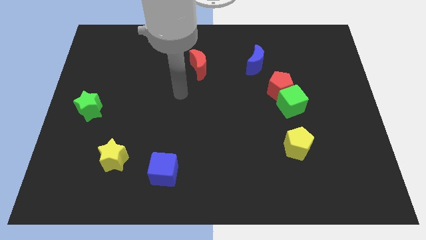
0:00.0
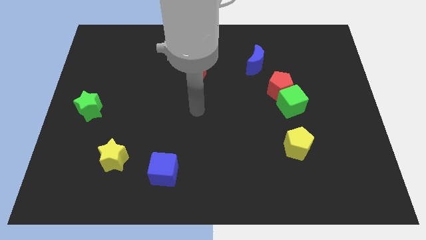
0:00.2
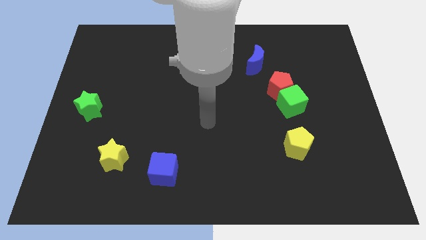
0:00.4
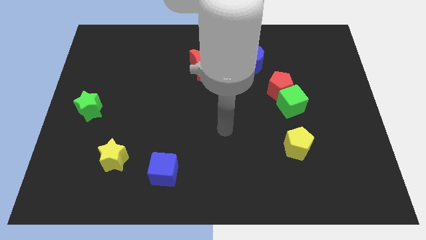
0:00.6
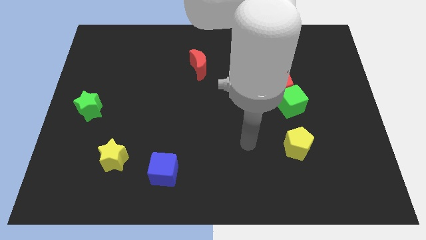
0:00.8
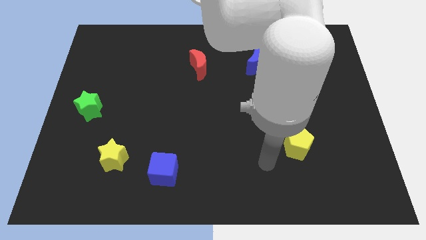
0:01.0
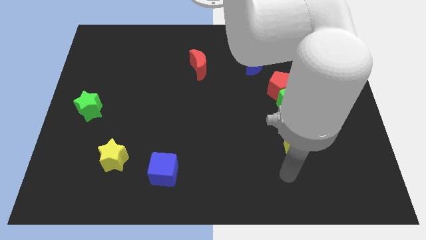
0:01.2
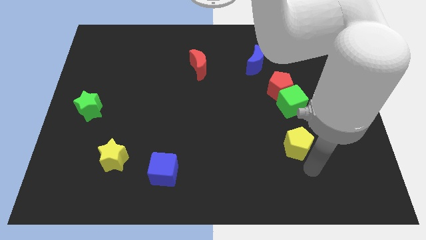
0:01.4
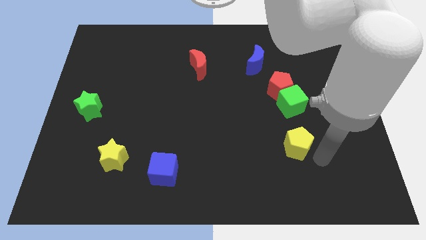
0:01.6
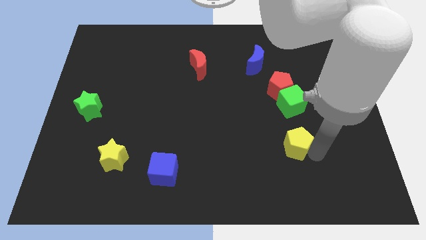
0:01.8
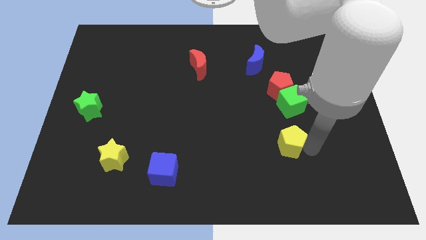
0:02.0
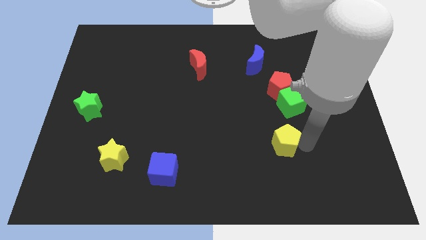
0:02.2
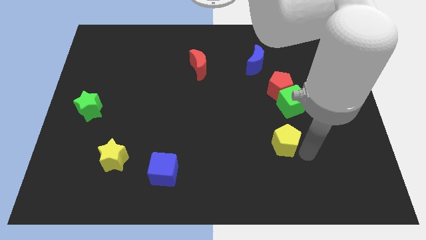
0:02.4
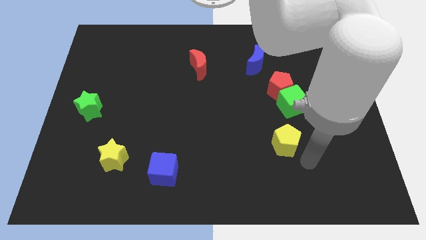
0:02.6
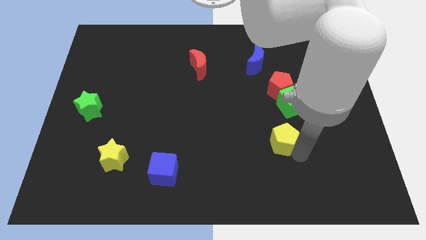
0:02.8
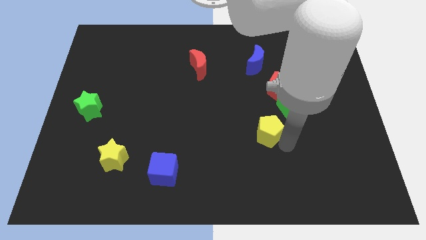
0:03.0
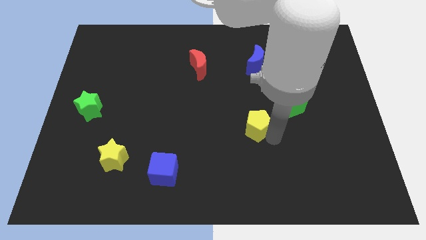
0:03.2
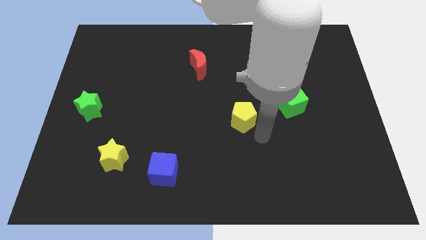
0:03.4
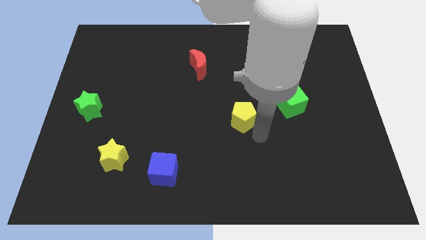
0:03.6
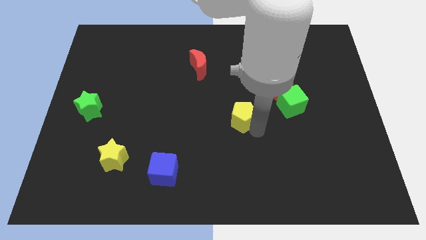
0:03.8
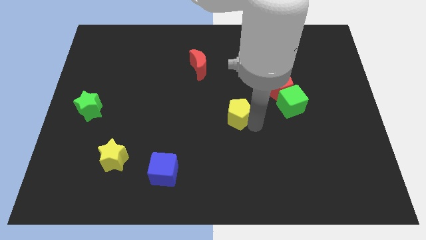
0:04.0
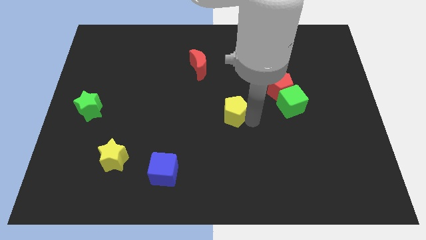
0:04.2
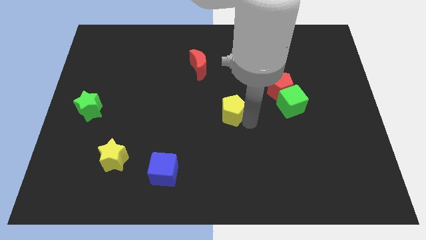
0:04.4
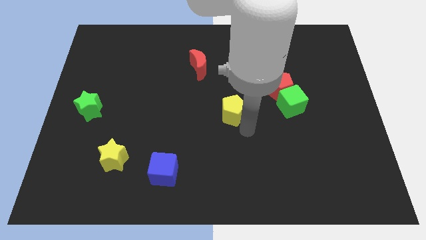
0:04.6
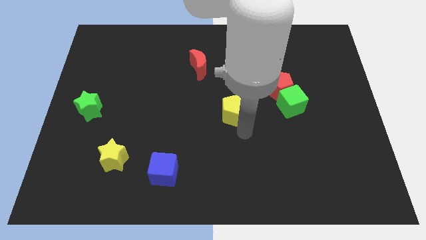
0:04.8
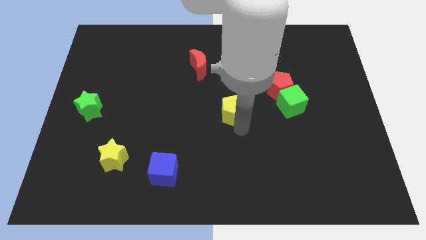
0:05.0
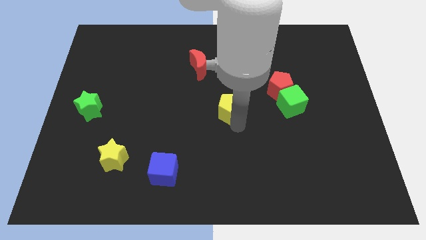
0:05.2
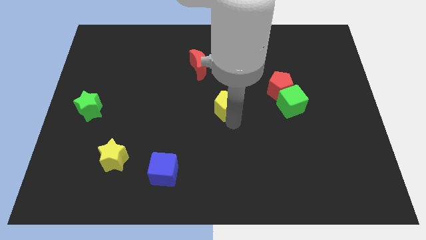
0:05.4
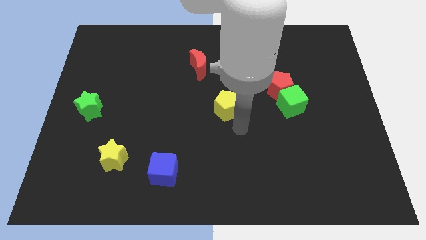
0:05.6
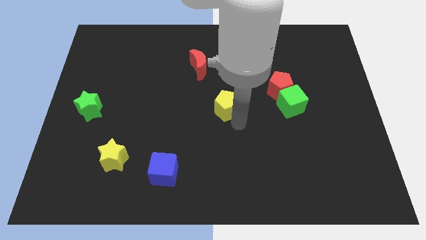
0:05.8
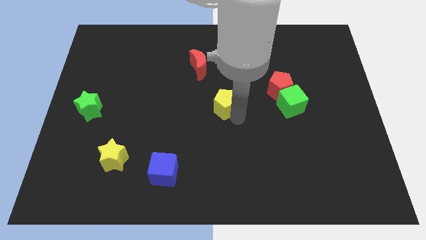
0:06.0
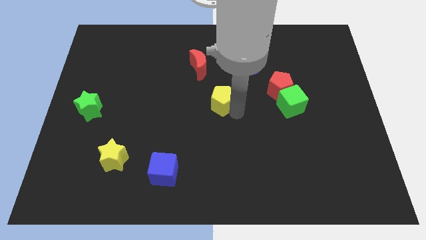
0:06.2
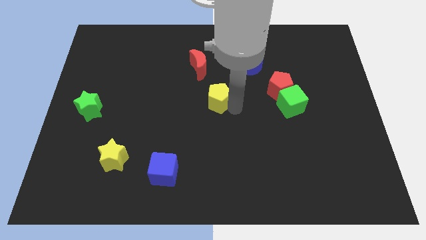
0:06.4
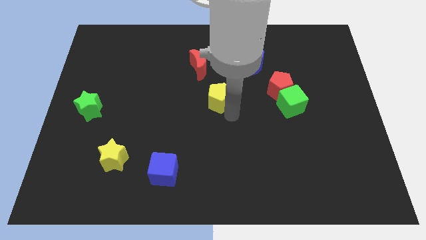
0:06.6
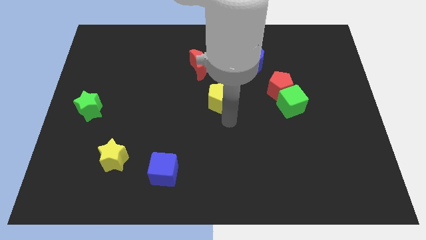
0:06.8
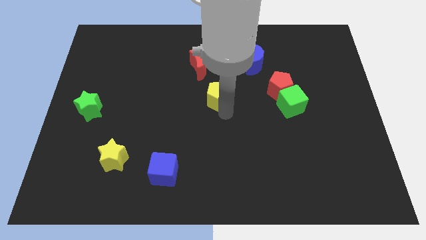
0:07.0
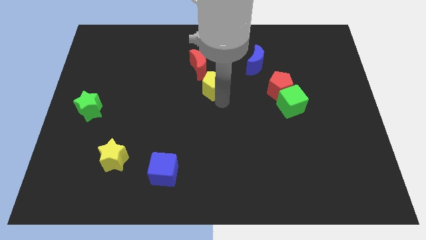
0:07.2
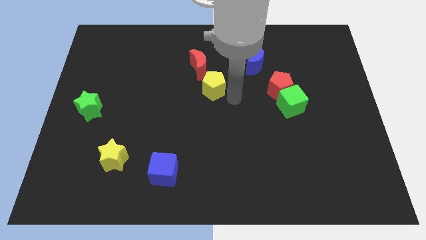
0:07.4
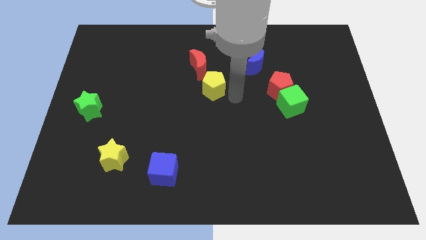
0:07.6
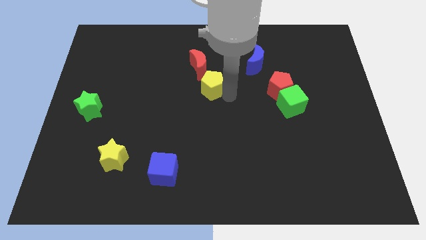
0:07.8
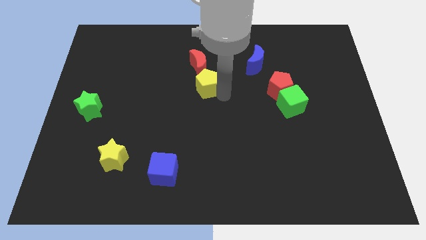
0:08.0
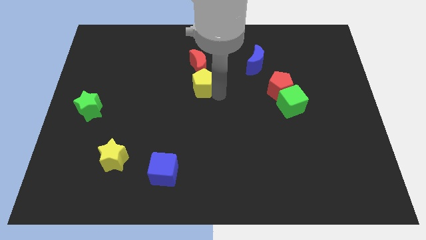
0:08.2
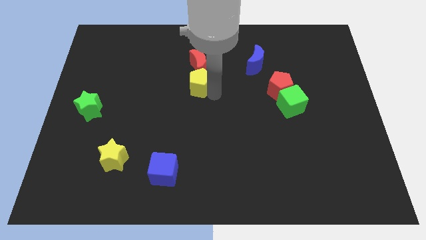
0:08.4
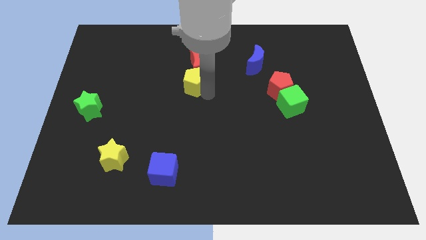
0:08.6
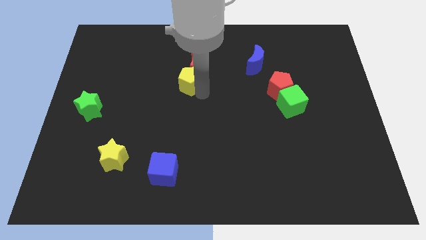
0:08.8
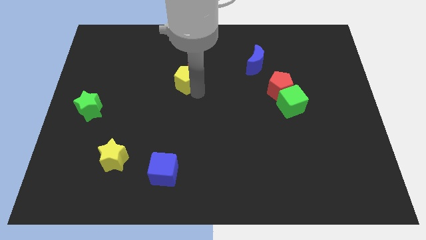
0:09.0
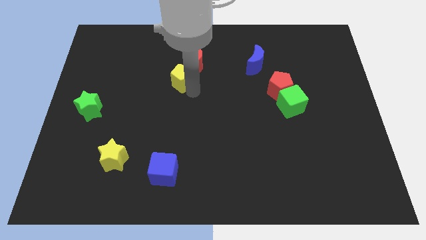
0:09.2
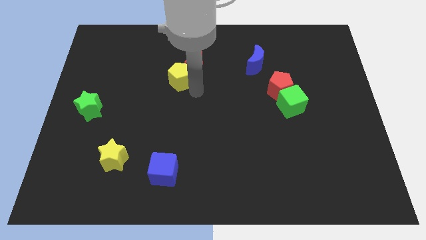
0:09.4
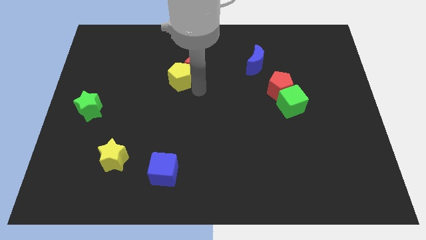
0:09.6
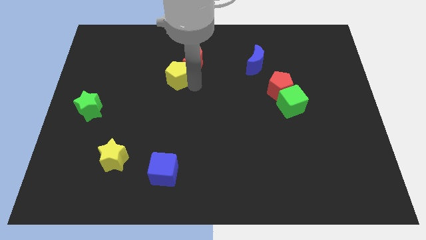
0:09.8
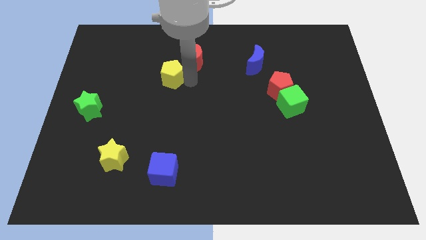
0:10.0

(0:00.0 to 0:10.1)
push the yellow pentagon to the left side of the red moon

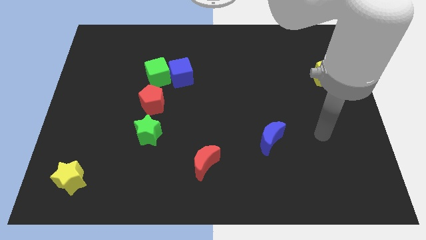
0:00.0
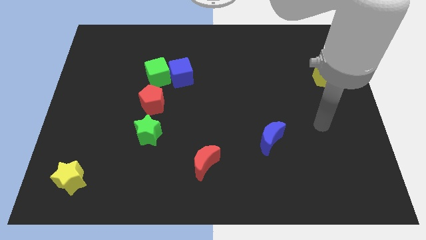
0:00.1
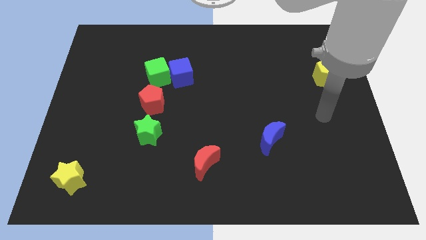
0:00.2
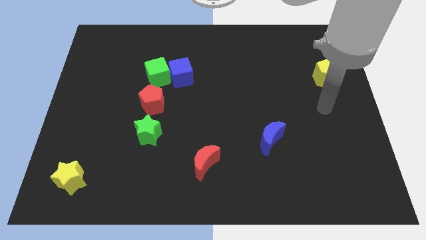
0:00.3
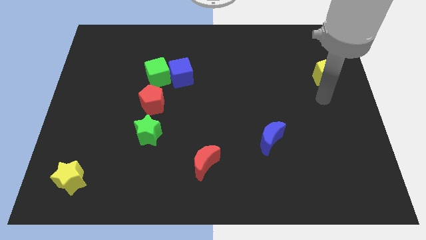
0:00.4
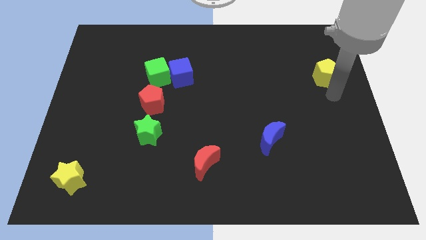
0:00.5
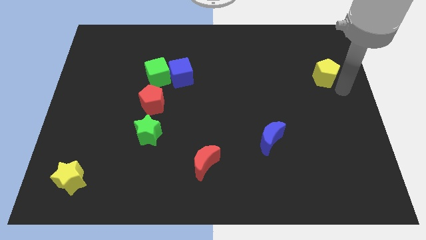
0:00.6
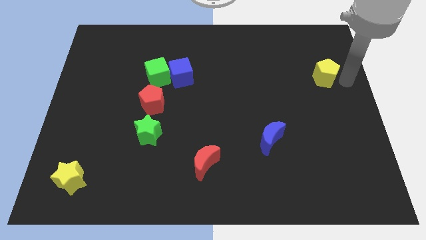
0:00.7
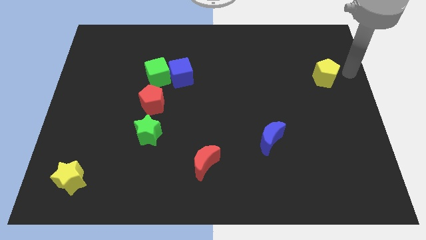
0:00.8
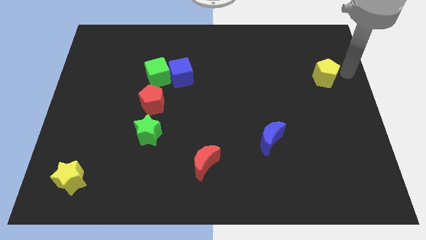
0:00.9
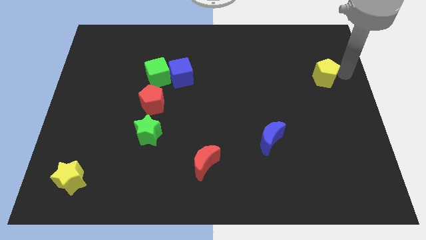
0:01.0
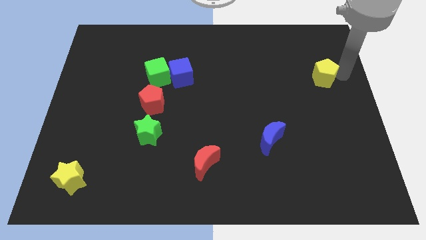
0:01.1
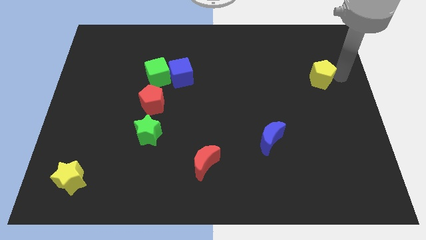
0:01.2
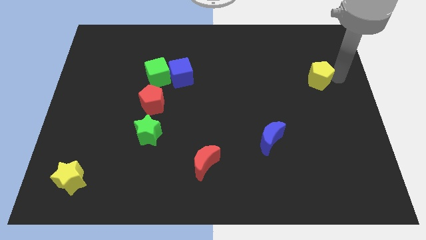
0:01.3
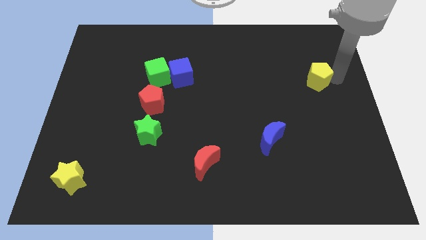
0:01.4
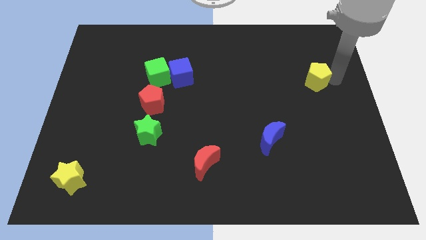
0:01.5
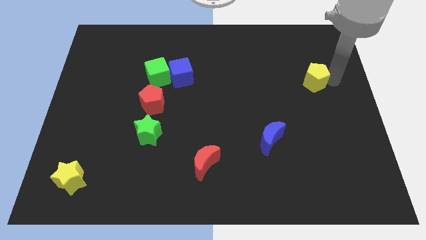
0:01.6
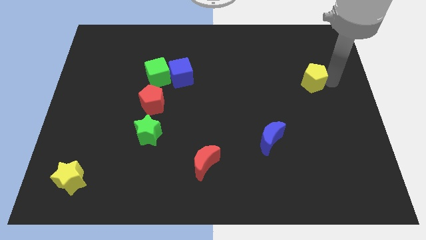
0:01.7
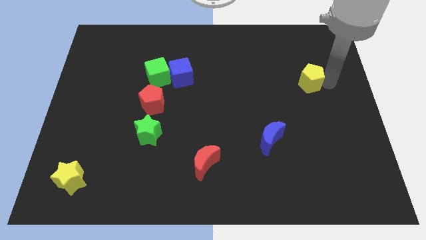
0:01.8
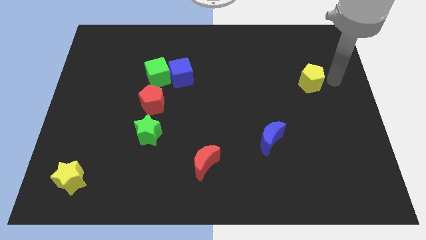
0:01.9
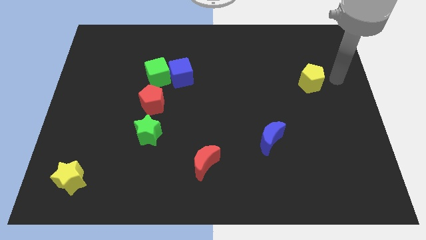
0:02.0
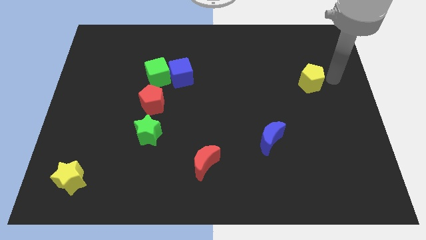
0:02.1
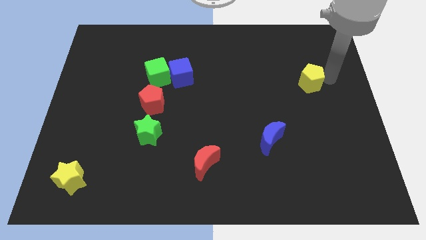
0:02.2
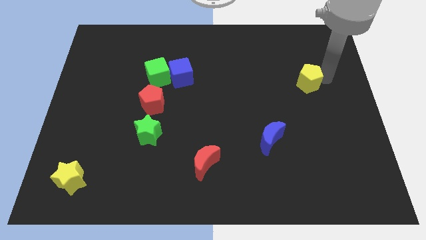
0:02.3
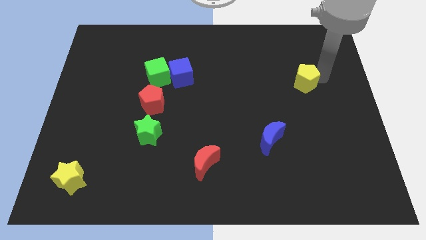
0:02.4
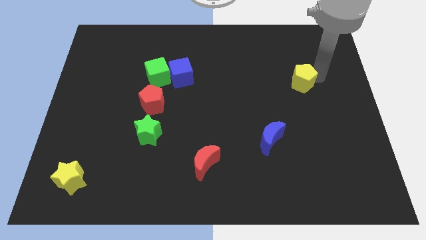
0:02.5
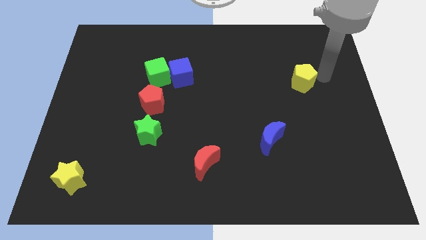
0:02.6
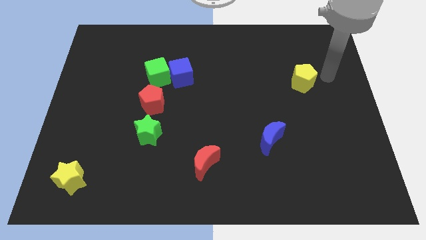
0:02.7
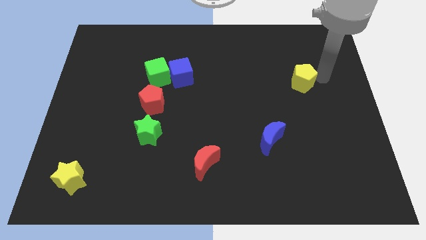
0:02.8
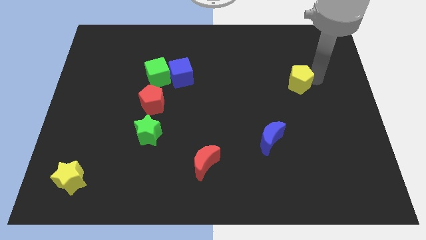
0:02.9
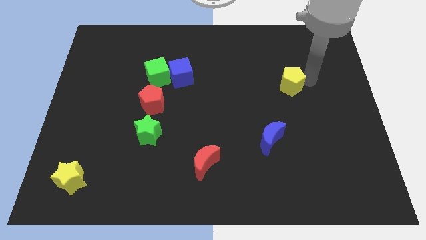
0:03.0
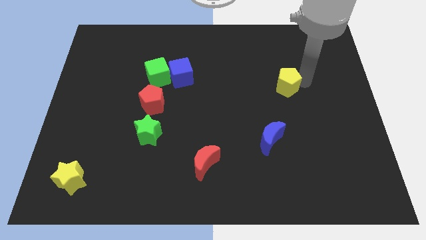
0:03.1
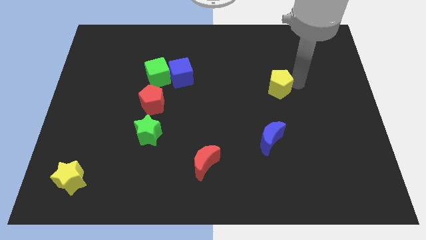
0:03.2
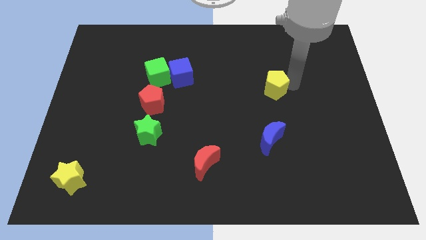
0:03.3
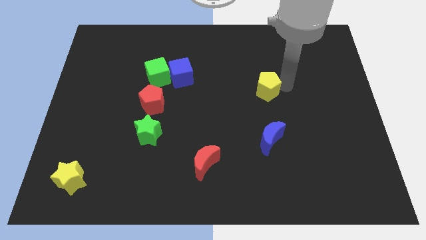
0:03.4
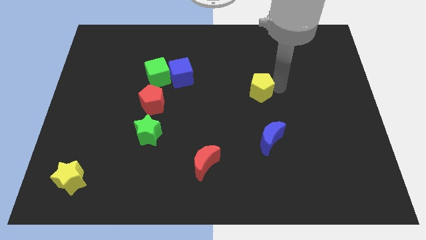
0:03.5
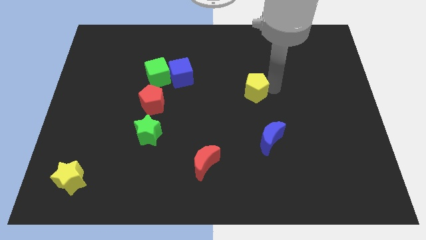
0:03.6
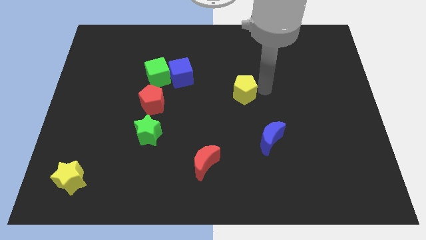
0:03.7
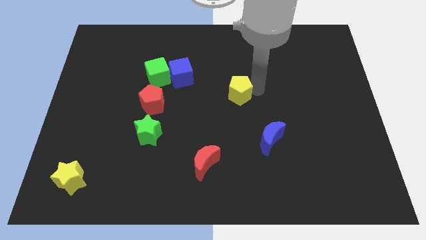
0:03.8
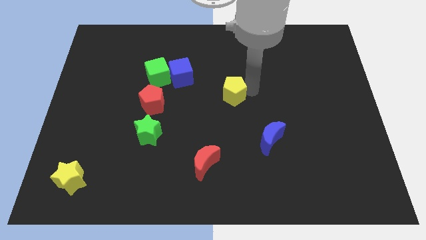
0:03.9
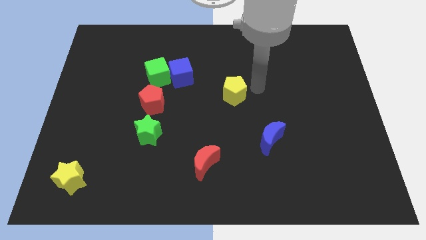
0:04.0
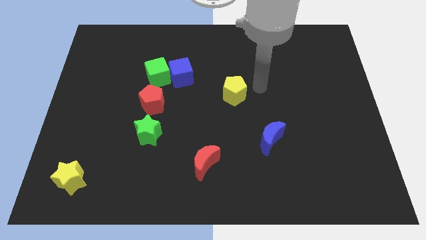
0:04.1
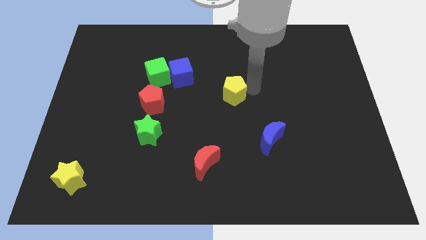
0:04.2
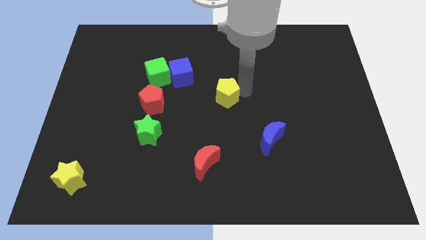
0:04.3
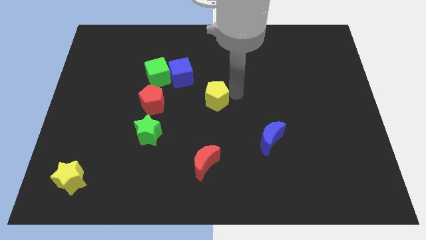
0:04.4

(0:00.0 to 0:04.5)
put the yellow pentagon to the right of the red pentagon
